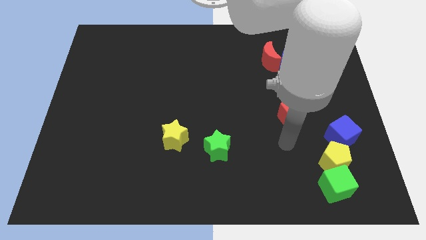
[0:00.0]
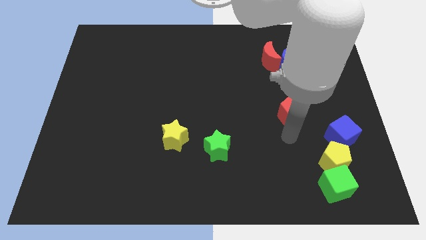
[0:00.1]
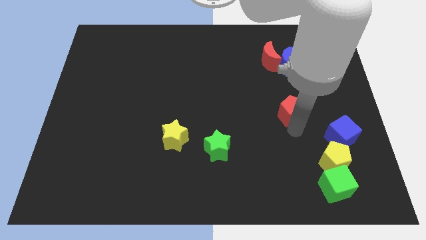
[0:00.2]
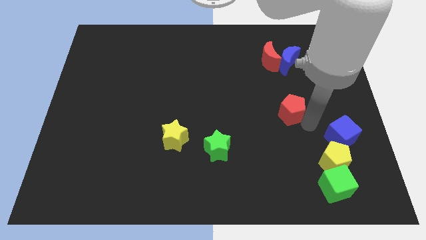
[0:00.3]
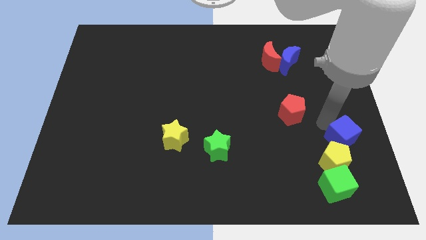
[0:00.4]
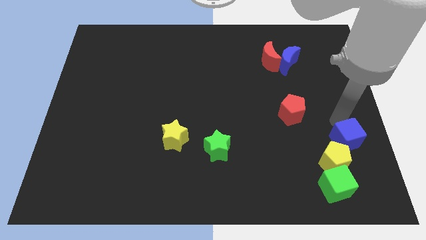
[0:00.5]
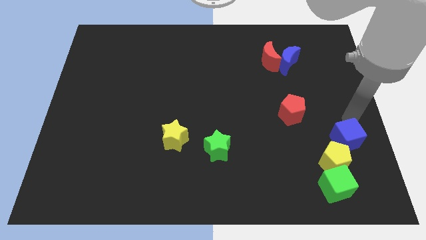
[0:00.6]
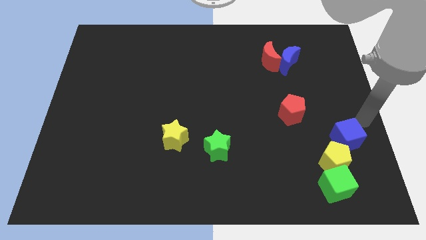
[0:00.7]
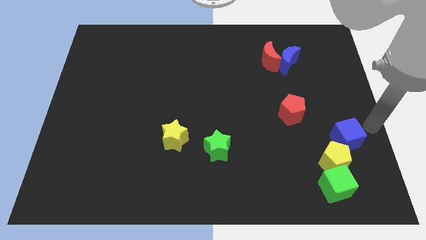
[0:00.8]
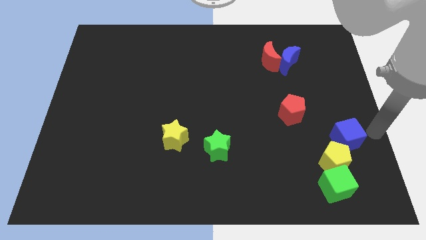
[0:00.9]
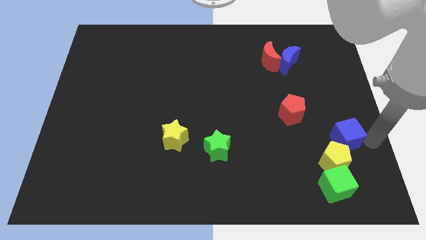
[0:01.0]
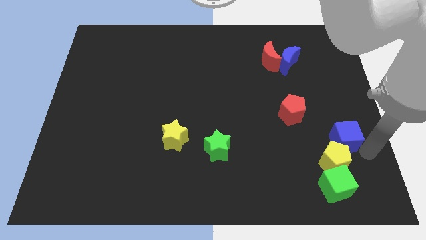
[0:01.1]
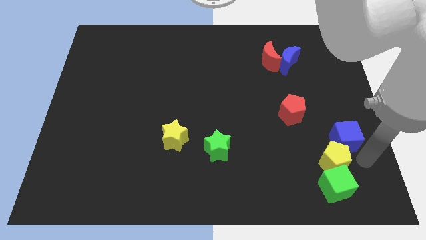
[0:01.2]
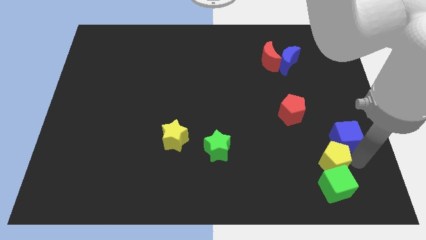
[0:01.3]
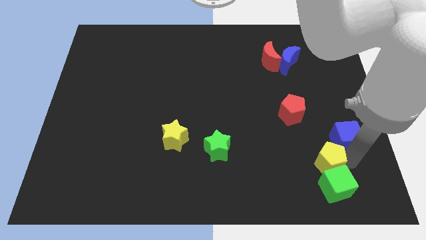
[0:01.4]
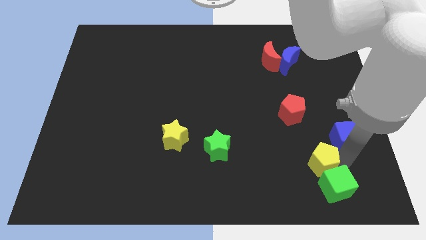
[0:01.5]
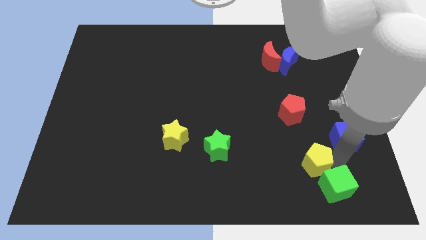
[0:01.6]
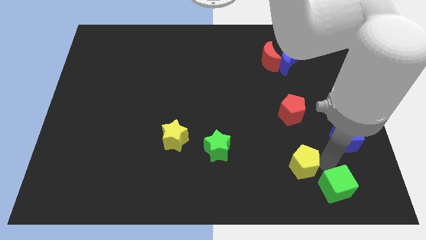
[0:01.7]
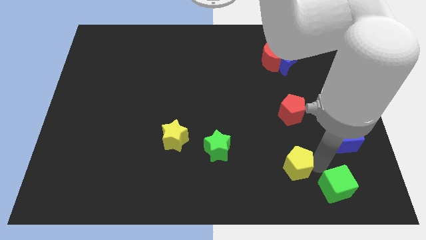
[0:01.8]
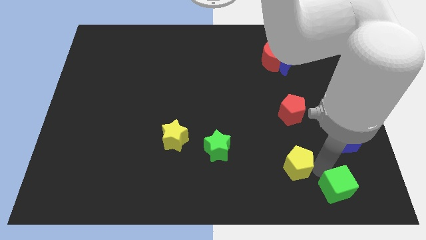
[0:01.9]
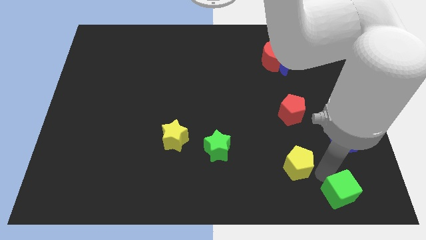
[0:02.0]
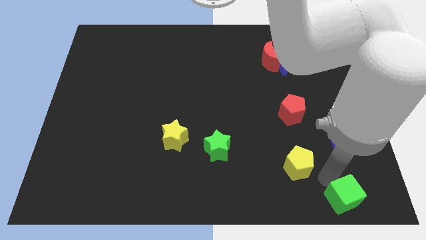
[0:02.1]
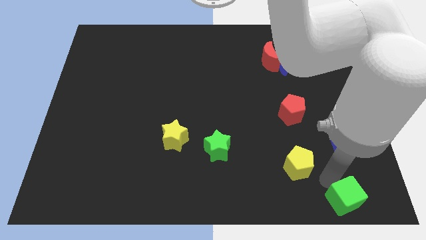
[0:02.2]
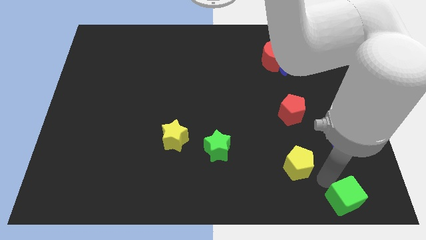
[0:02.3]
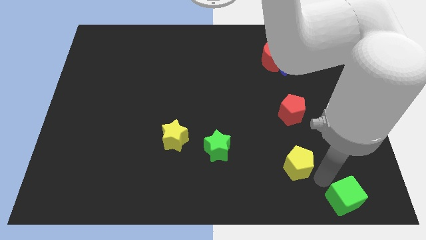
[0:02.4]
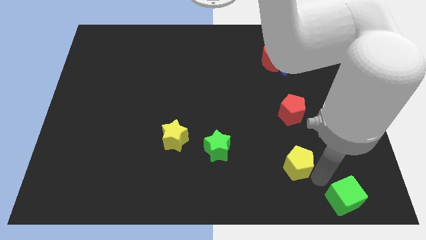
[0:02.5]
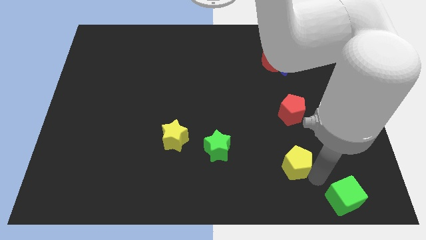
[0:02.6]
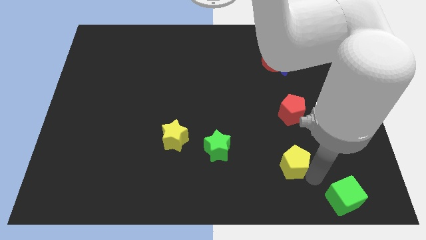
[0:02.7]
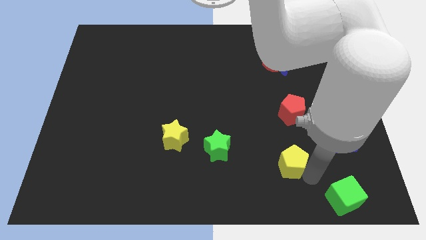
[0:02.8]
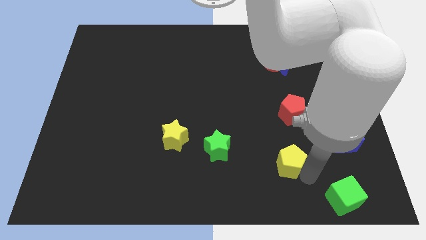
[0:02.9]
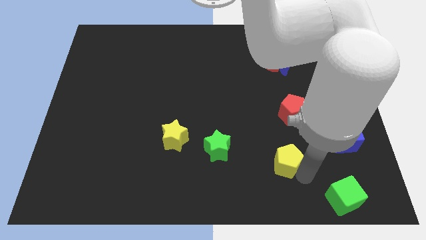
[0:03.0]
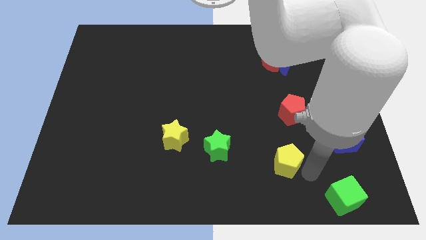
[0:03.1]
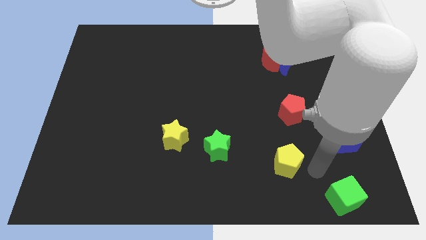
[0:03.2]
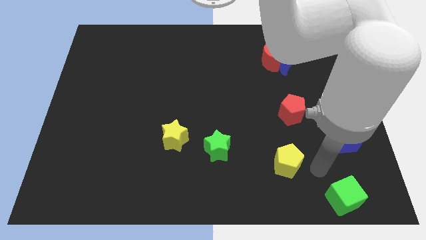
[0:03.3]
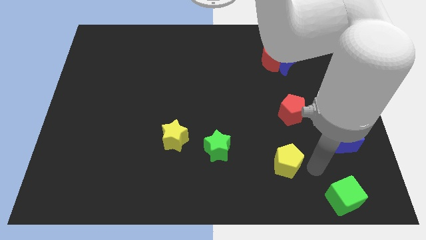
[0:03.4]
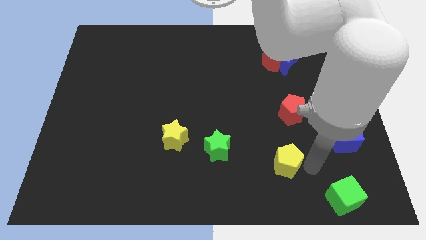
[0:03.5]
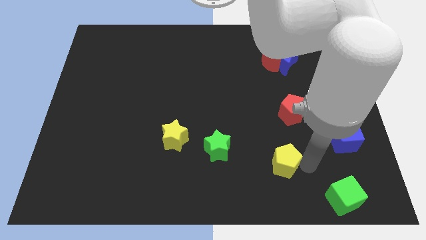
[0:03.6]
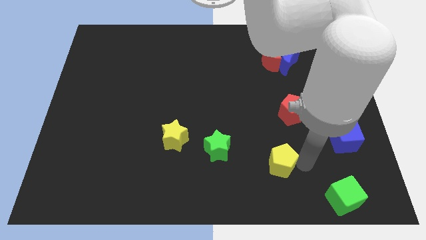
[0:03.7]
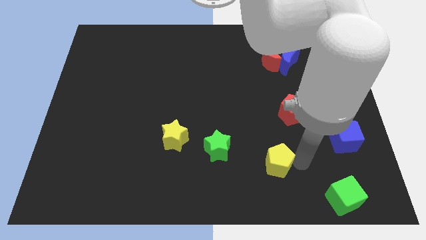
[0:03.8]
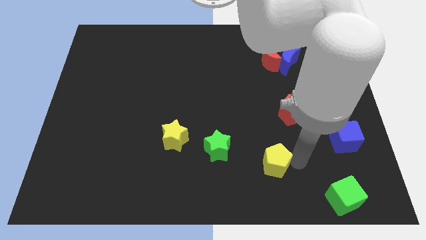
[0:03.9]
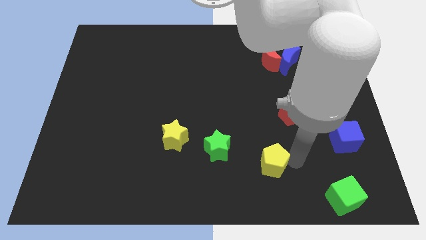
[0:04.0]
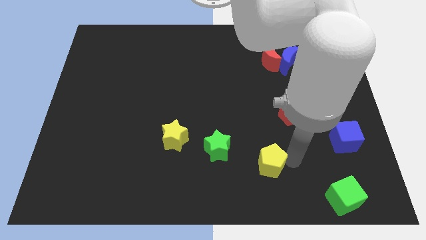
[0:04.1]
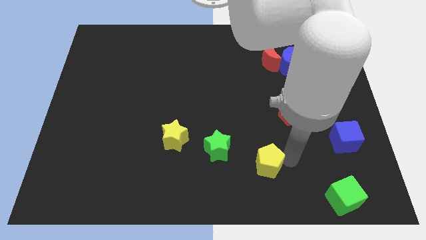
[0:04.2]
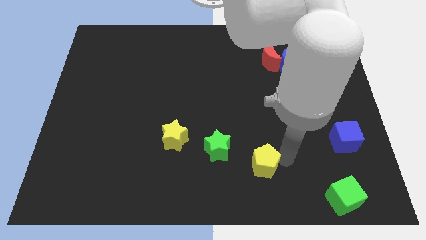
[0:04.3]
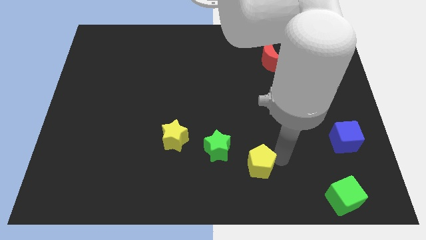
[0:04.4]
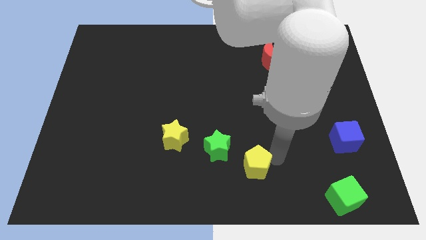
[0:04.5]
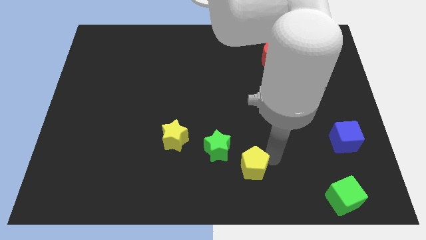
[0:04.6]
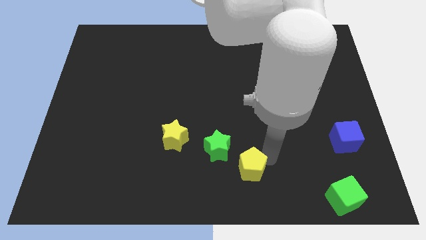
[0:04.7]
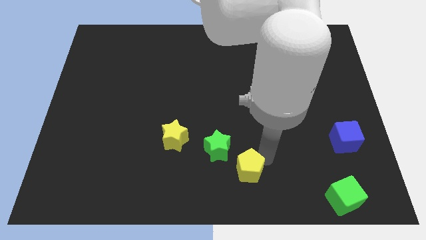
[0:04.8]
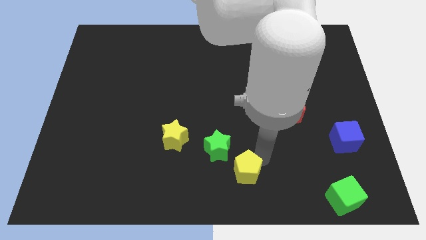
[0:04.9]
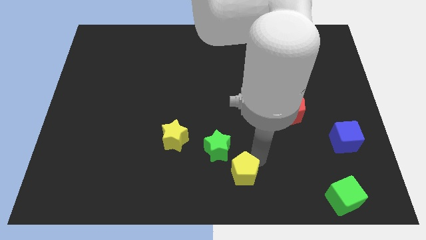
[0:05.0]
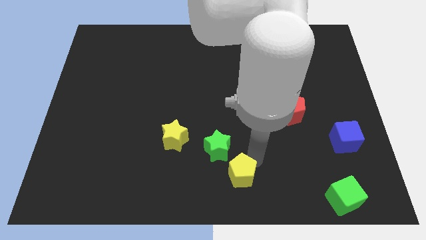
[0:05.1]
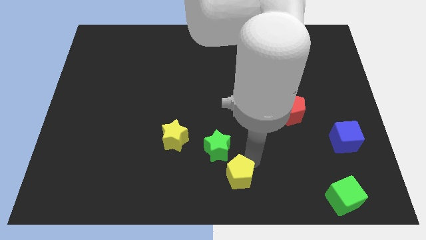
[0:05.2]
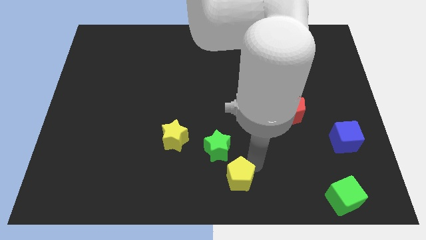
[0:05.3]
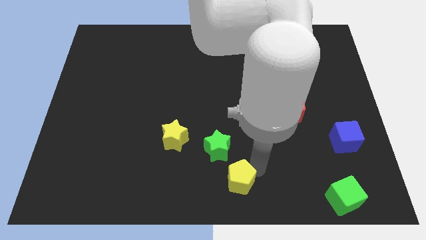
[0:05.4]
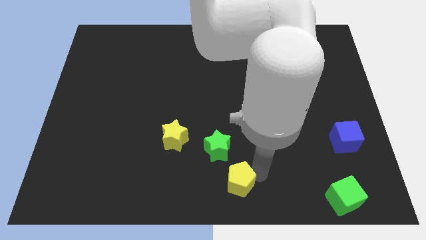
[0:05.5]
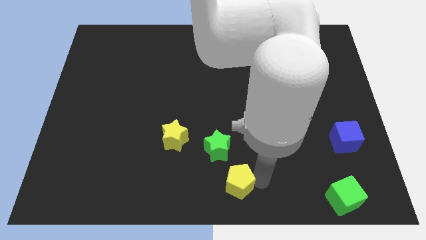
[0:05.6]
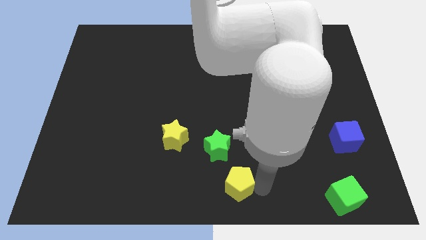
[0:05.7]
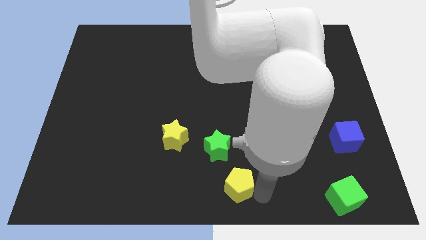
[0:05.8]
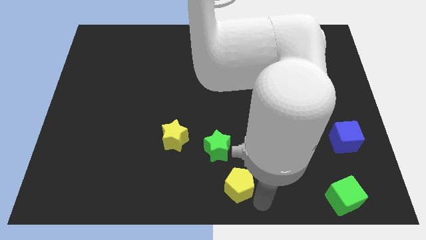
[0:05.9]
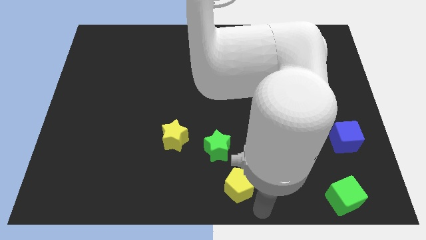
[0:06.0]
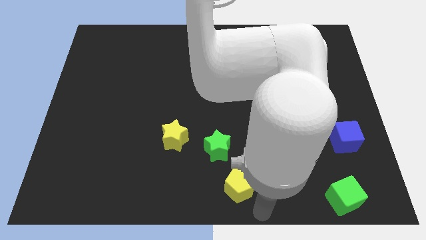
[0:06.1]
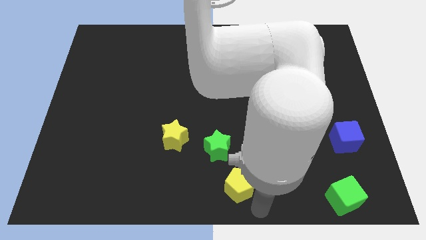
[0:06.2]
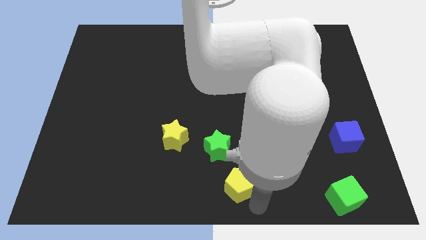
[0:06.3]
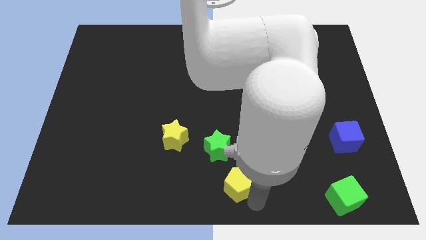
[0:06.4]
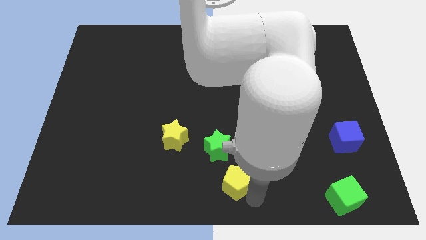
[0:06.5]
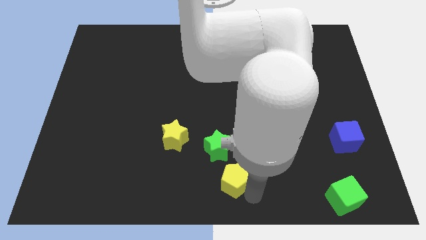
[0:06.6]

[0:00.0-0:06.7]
push the yellow pentagon to the left

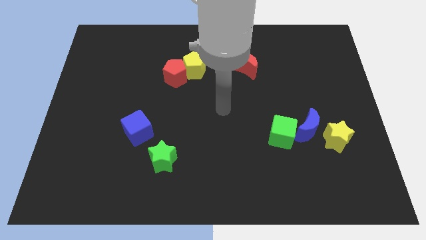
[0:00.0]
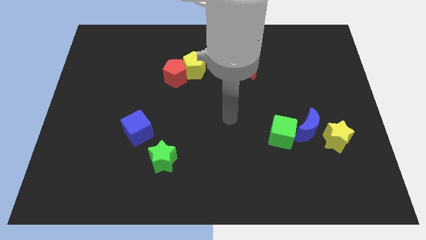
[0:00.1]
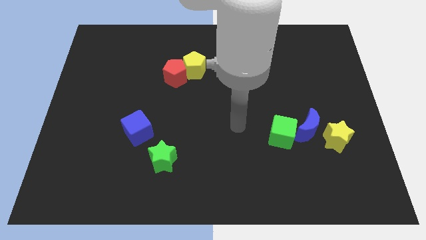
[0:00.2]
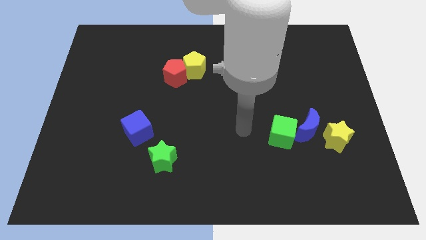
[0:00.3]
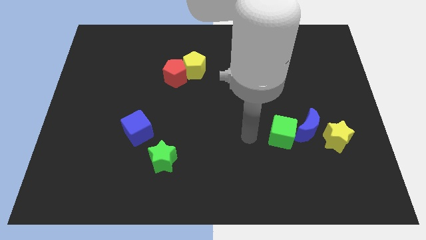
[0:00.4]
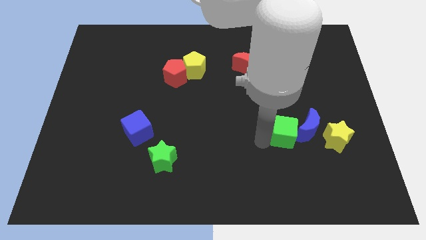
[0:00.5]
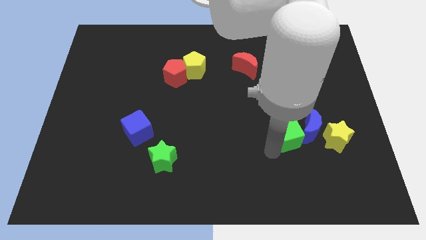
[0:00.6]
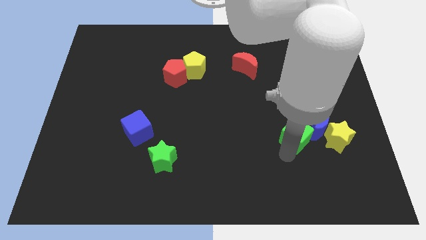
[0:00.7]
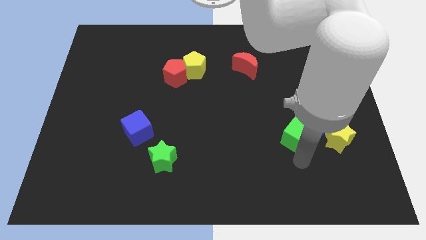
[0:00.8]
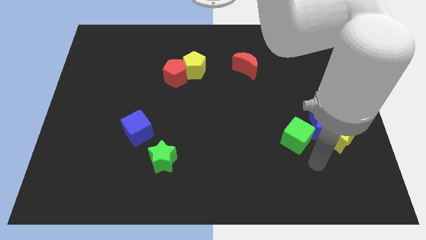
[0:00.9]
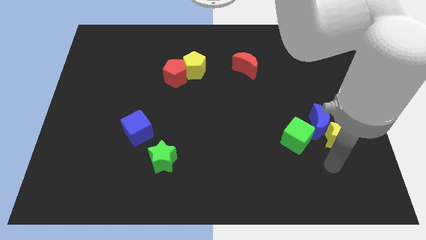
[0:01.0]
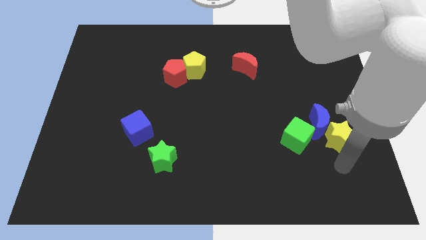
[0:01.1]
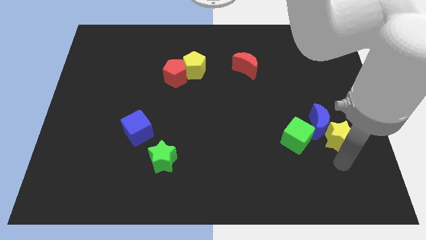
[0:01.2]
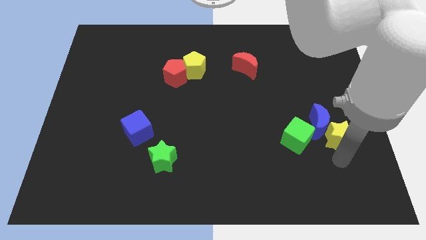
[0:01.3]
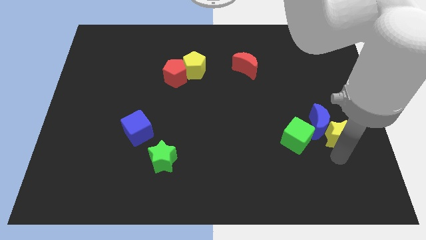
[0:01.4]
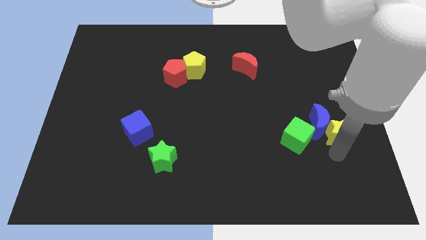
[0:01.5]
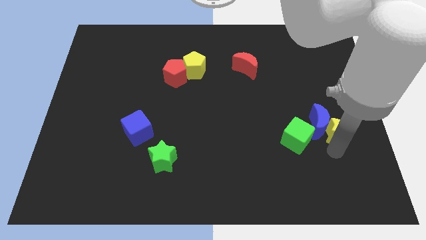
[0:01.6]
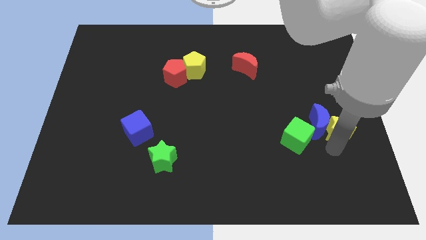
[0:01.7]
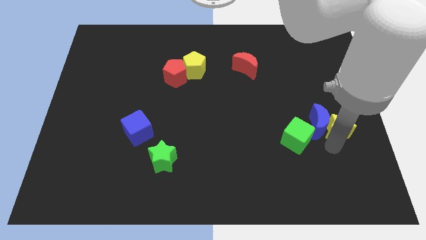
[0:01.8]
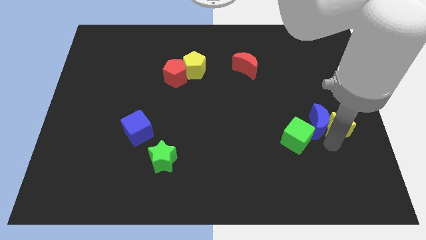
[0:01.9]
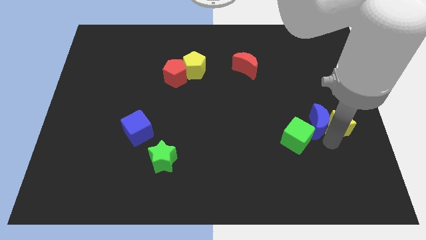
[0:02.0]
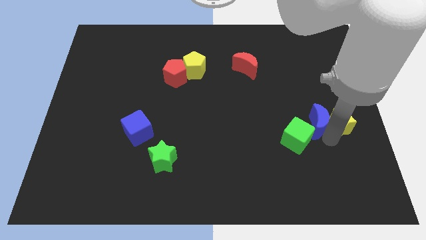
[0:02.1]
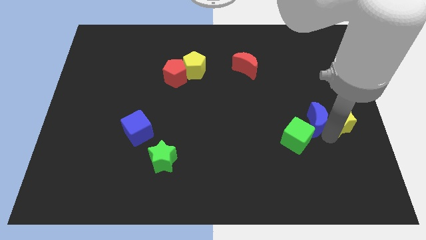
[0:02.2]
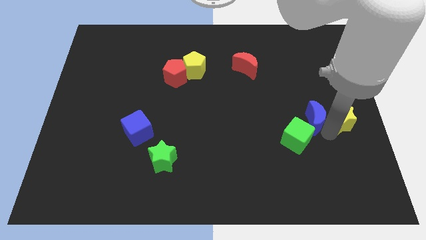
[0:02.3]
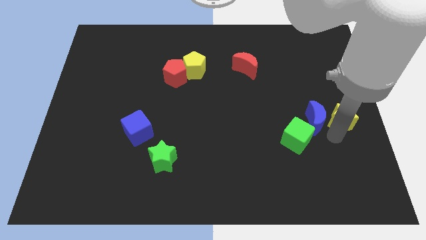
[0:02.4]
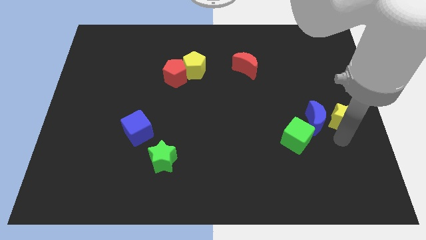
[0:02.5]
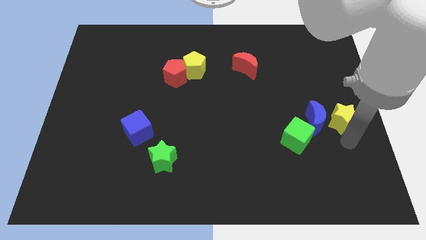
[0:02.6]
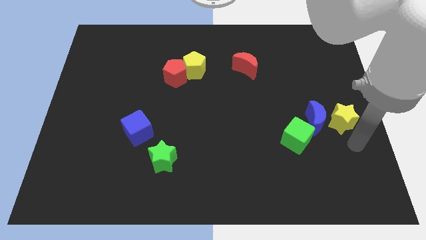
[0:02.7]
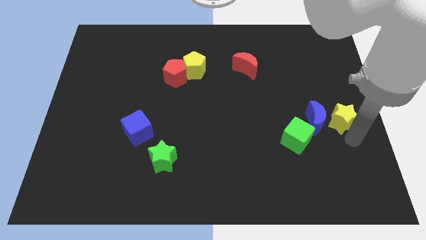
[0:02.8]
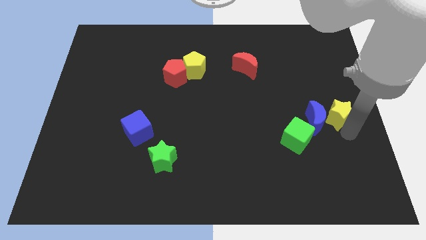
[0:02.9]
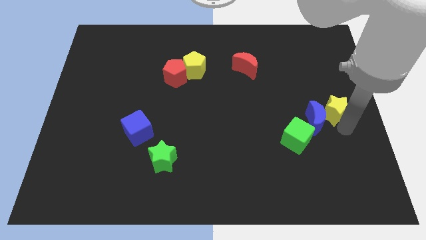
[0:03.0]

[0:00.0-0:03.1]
slightly push the yellow star up
